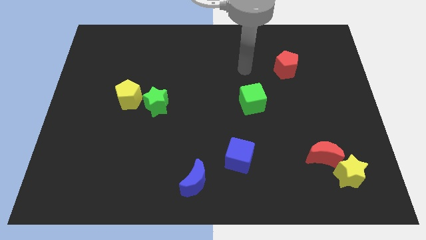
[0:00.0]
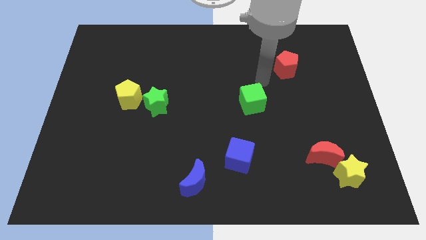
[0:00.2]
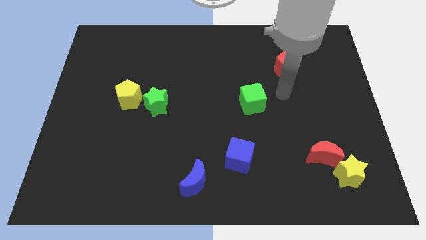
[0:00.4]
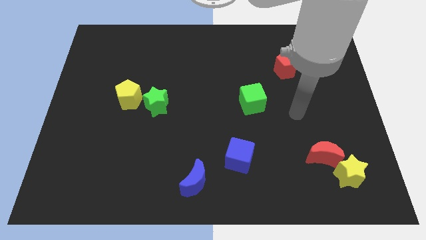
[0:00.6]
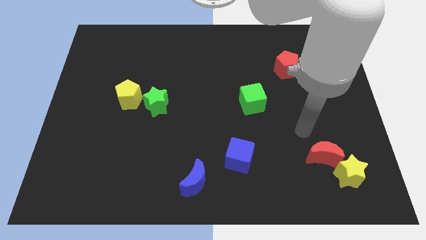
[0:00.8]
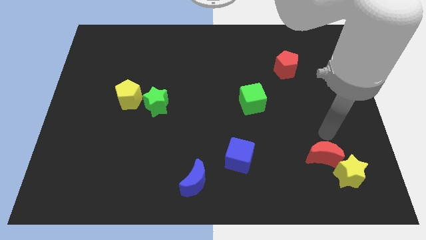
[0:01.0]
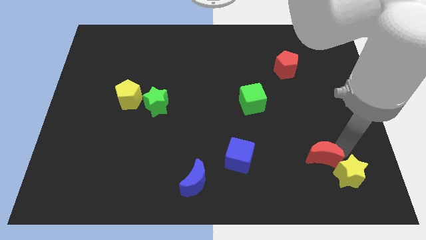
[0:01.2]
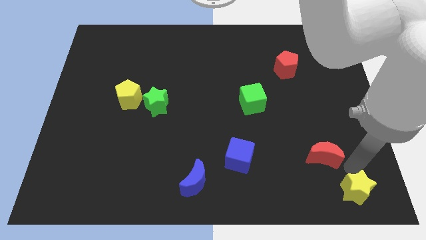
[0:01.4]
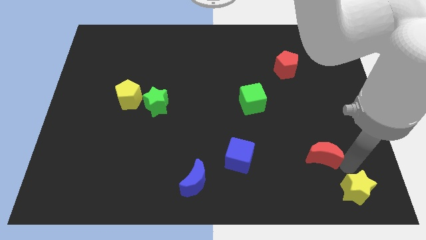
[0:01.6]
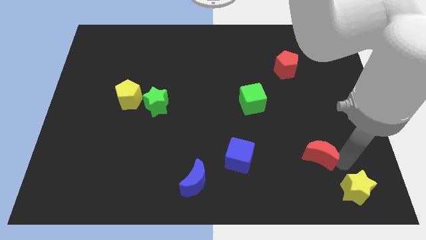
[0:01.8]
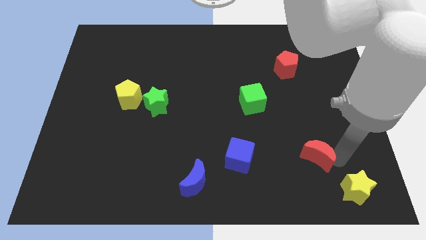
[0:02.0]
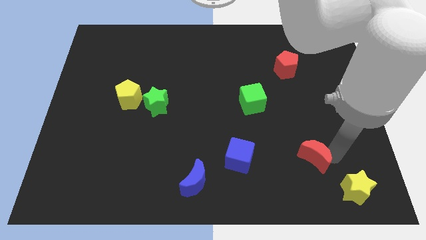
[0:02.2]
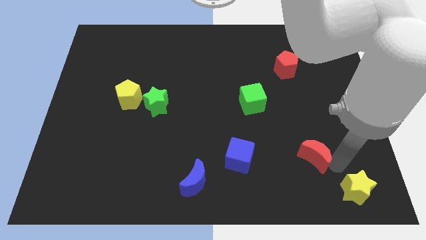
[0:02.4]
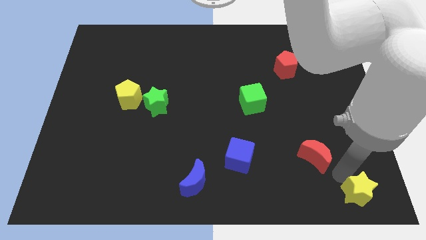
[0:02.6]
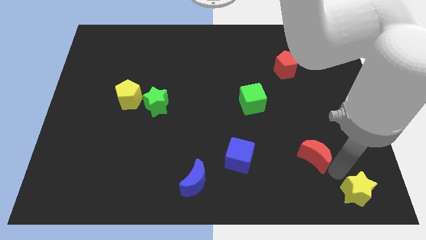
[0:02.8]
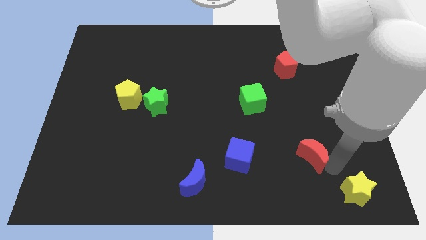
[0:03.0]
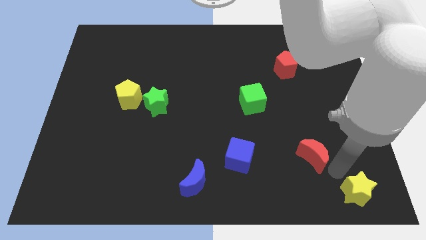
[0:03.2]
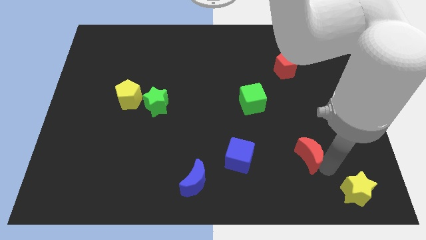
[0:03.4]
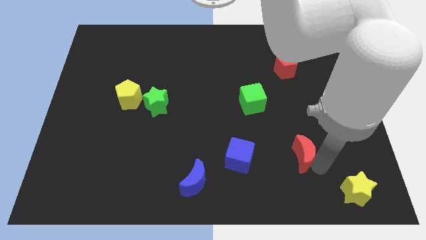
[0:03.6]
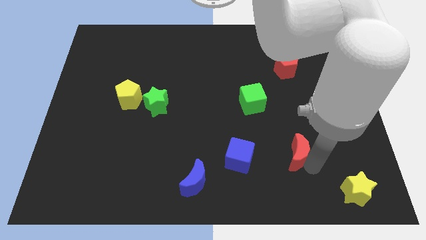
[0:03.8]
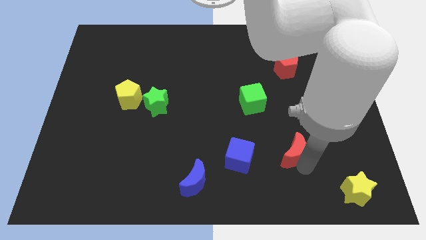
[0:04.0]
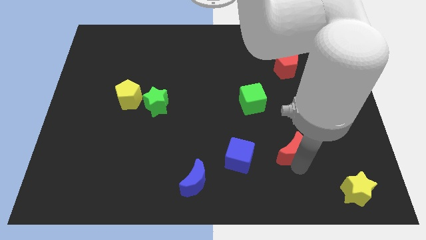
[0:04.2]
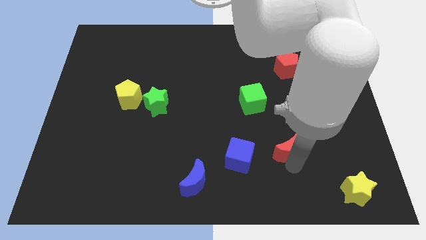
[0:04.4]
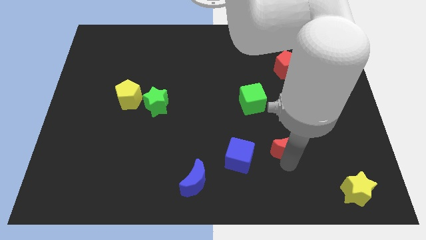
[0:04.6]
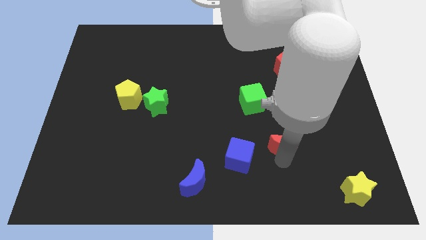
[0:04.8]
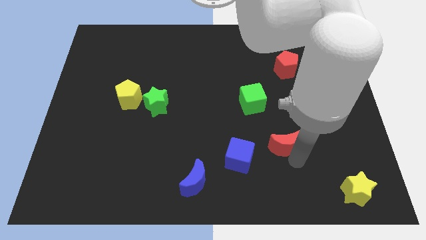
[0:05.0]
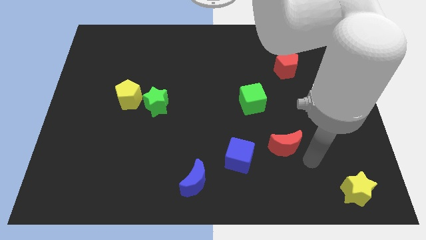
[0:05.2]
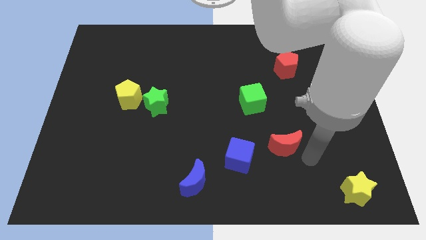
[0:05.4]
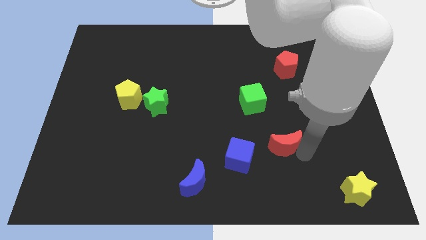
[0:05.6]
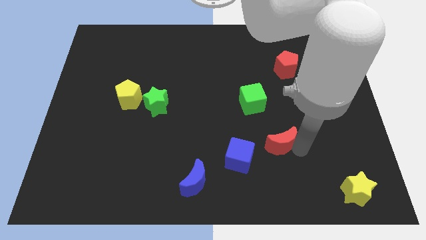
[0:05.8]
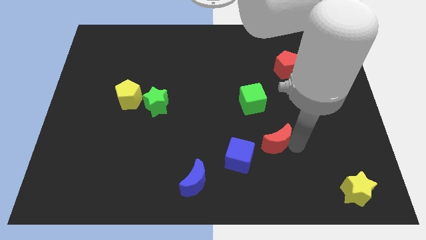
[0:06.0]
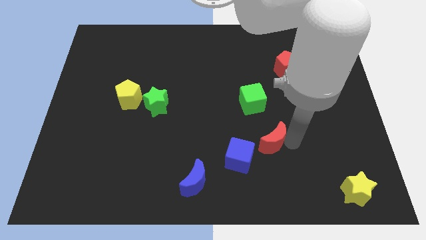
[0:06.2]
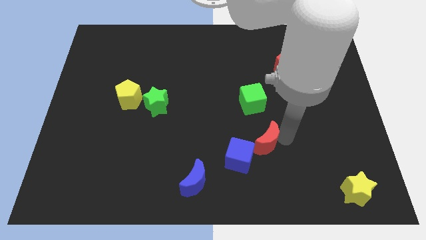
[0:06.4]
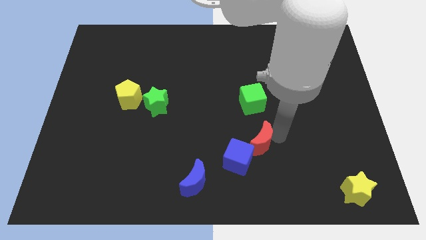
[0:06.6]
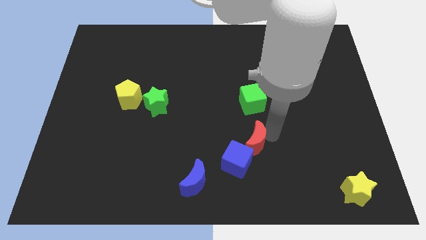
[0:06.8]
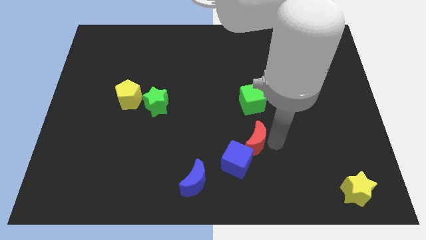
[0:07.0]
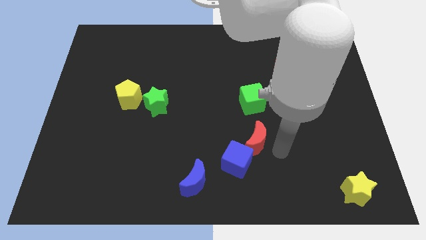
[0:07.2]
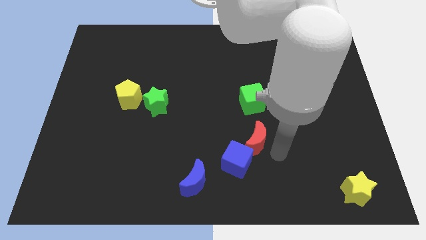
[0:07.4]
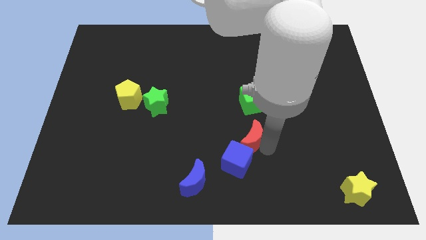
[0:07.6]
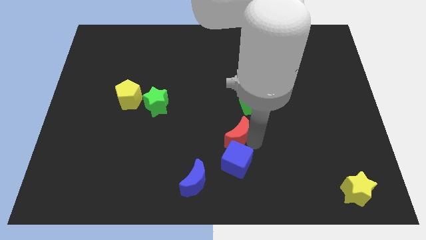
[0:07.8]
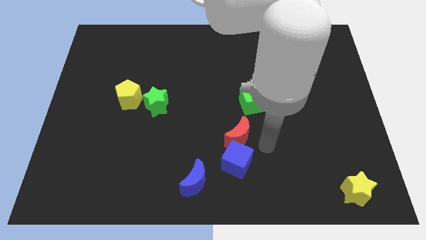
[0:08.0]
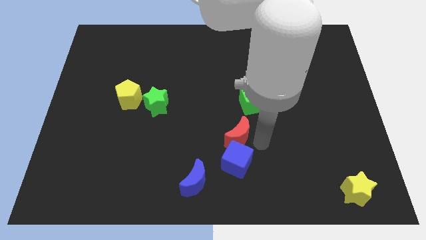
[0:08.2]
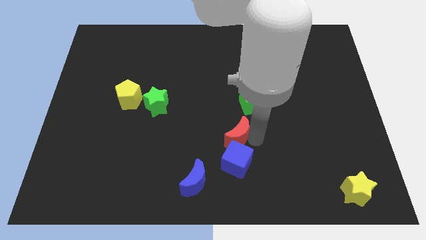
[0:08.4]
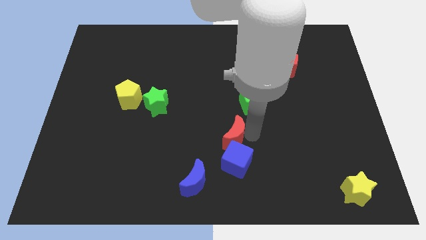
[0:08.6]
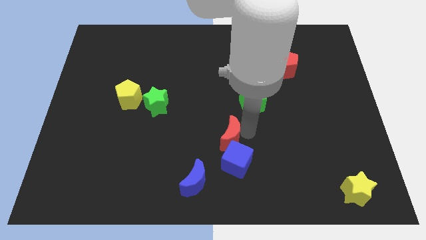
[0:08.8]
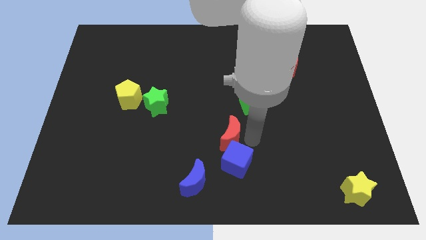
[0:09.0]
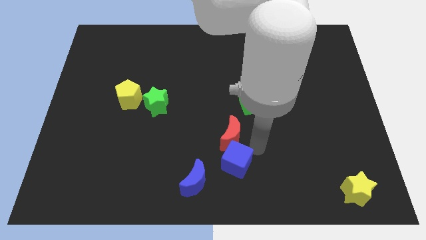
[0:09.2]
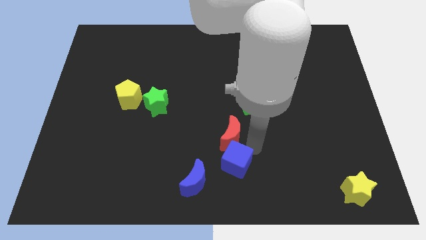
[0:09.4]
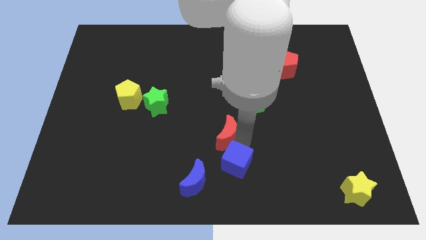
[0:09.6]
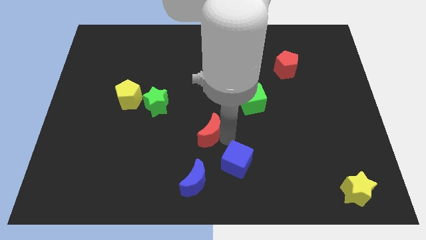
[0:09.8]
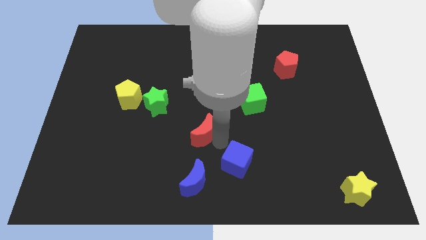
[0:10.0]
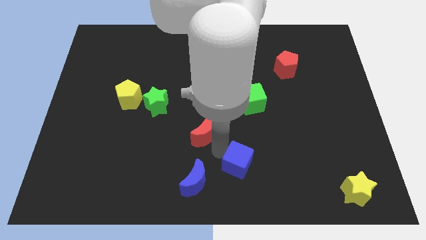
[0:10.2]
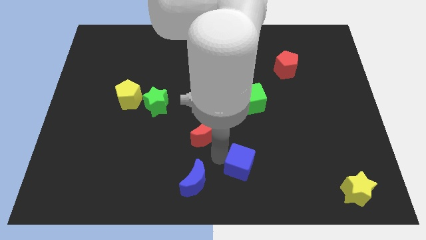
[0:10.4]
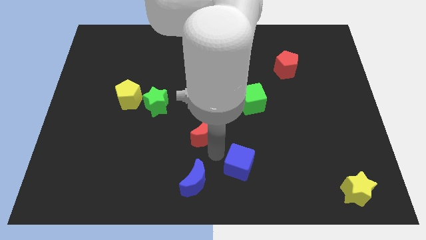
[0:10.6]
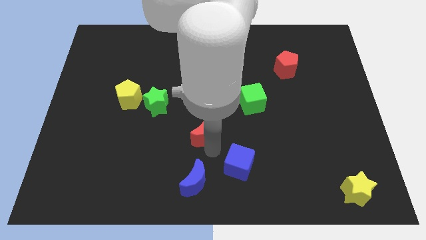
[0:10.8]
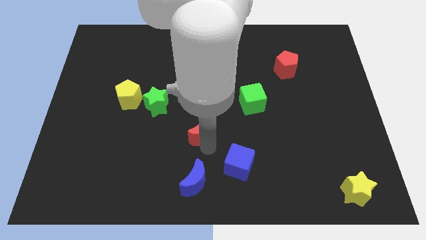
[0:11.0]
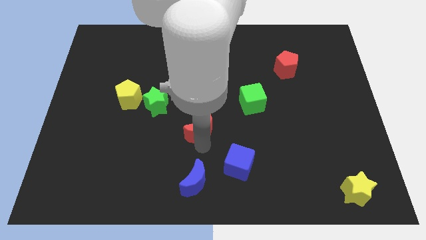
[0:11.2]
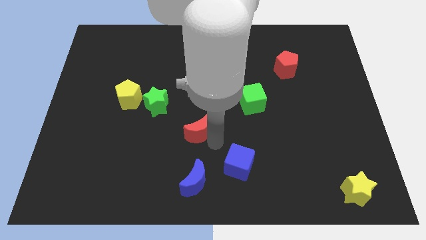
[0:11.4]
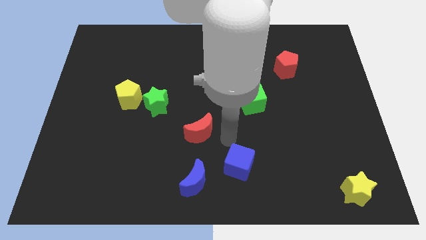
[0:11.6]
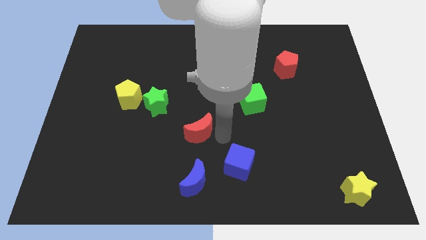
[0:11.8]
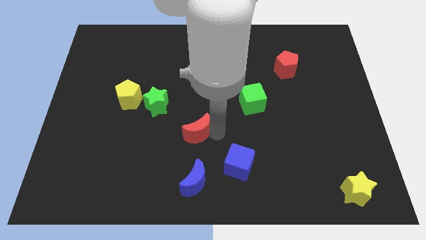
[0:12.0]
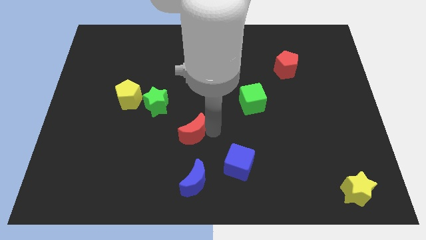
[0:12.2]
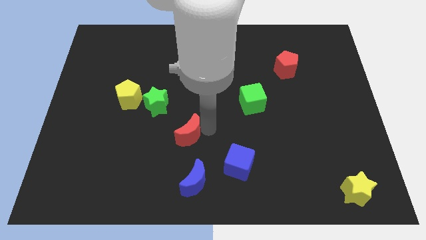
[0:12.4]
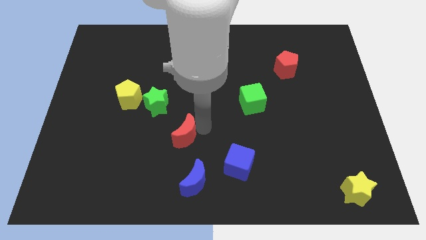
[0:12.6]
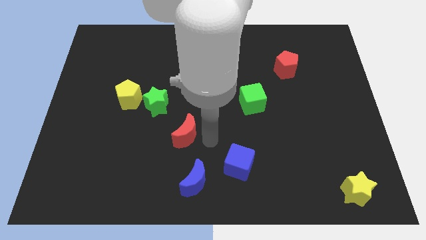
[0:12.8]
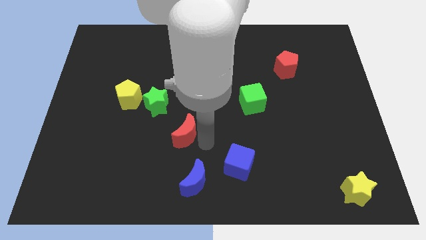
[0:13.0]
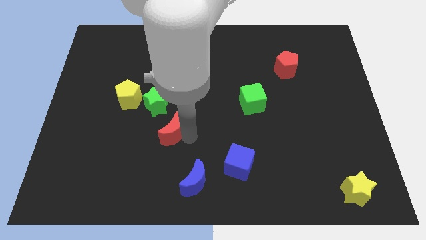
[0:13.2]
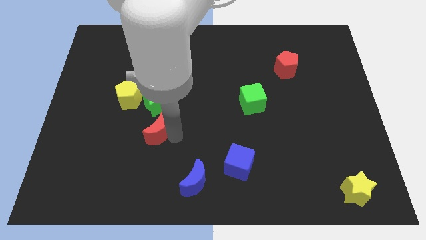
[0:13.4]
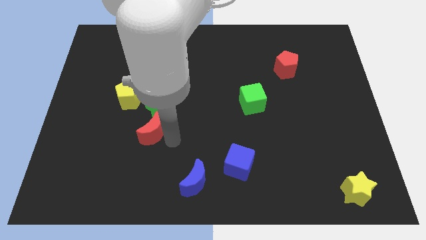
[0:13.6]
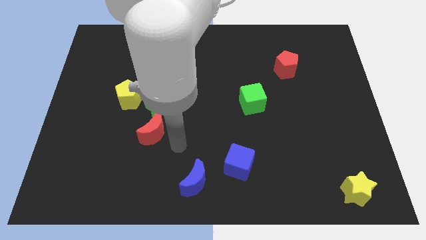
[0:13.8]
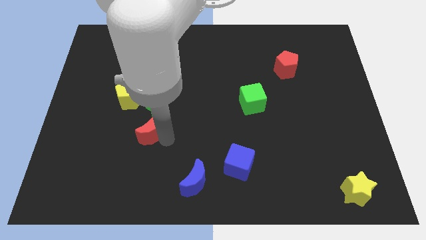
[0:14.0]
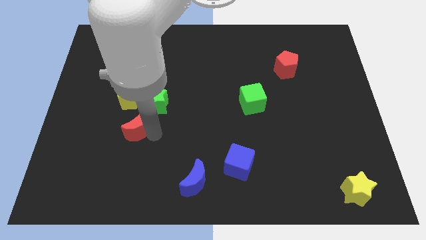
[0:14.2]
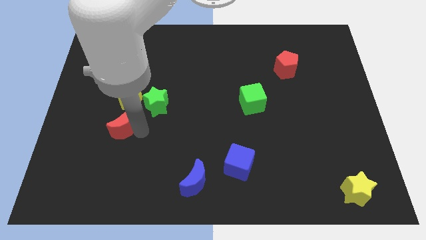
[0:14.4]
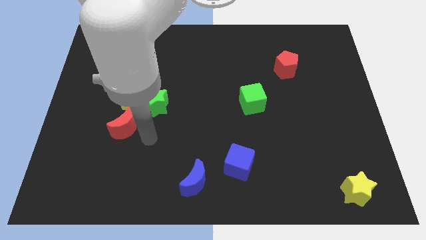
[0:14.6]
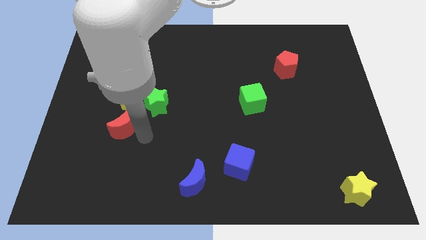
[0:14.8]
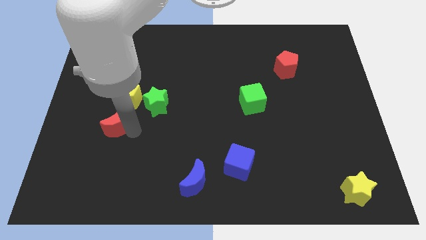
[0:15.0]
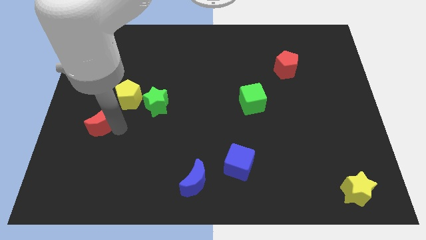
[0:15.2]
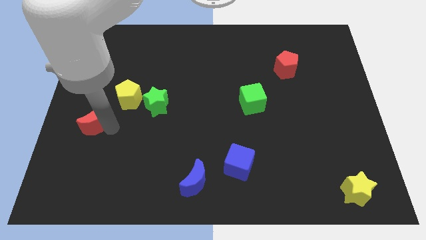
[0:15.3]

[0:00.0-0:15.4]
push the red moon to the left side
